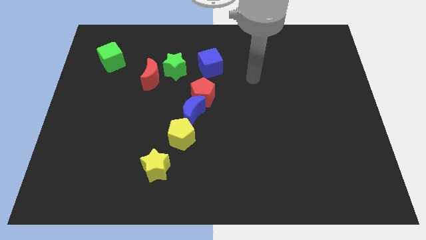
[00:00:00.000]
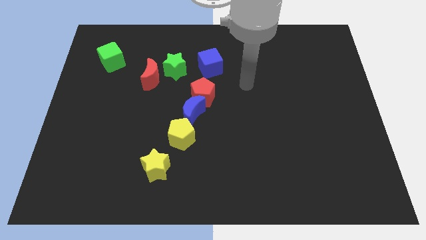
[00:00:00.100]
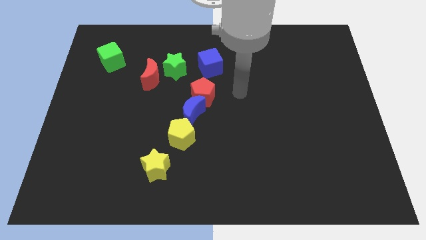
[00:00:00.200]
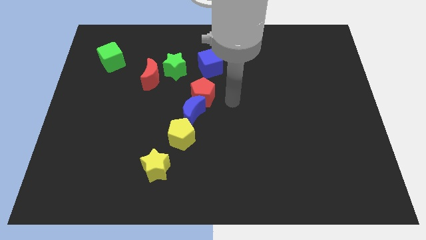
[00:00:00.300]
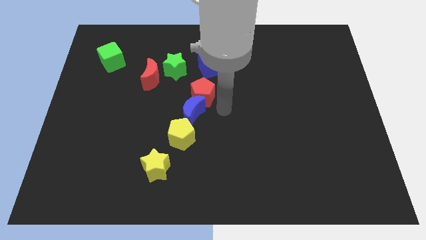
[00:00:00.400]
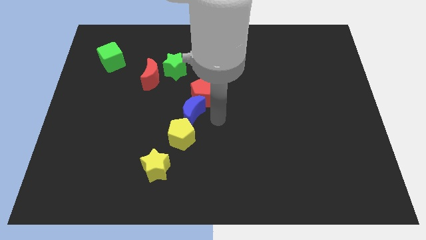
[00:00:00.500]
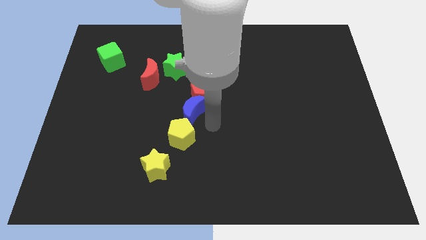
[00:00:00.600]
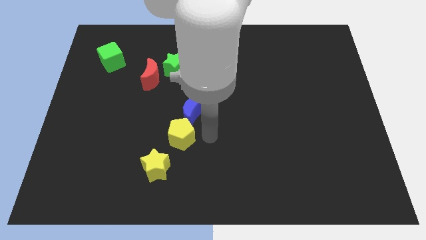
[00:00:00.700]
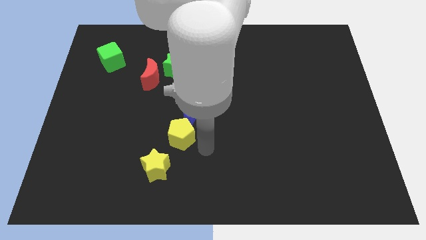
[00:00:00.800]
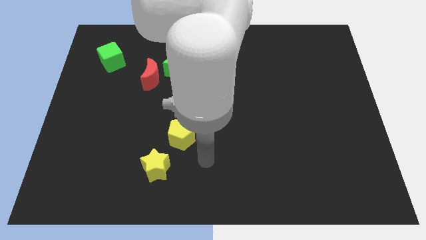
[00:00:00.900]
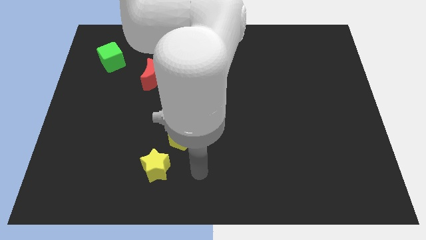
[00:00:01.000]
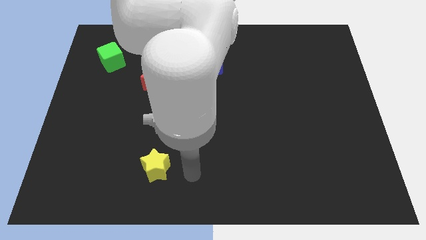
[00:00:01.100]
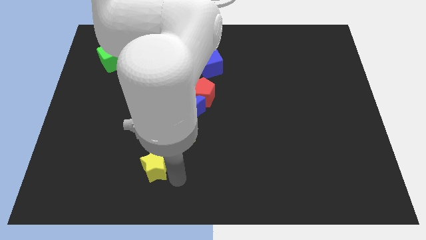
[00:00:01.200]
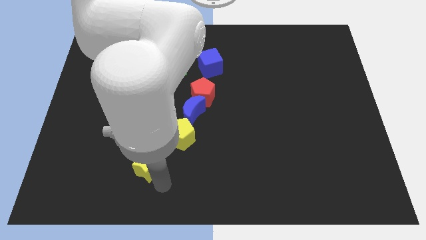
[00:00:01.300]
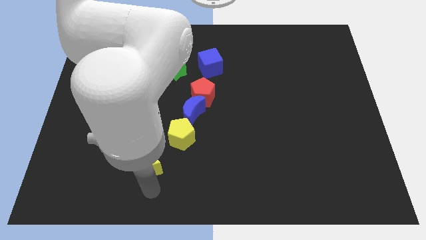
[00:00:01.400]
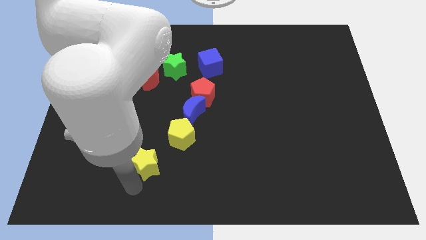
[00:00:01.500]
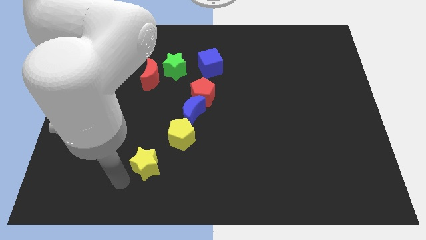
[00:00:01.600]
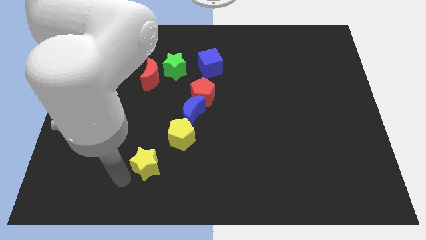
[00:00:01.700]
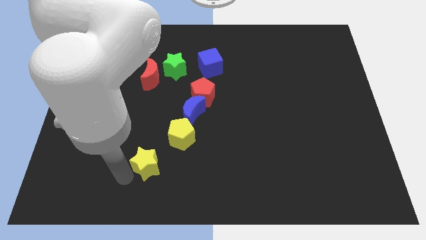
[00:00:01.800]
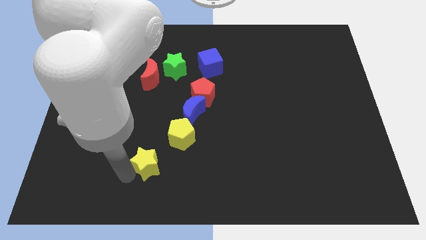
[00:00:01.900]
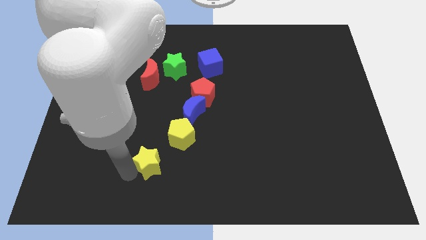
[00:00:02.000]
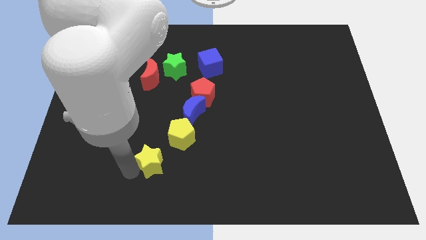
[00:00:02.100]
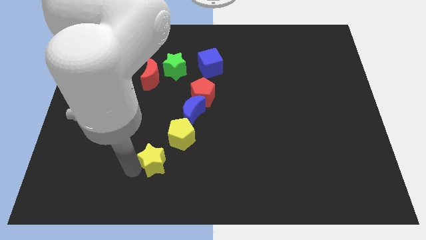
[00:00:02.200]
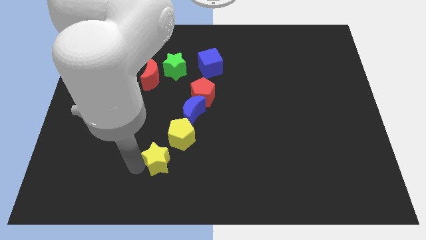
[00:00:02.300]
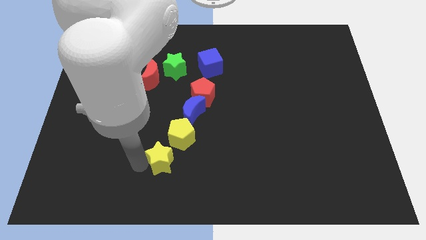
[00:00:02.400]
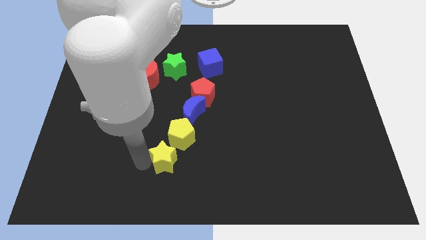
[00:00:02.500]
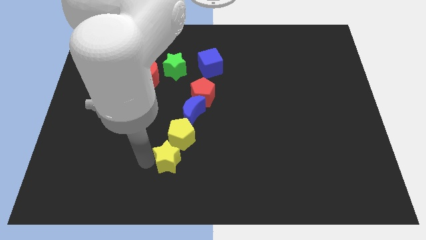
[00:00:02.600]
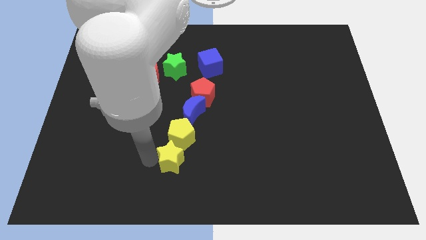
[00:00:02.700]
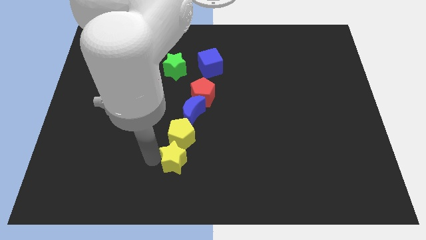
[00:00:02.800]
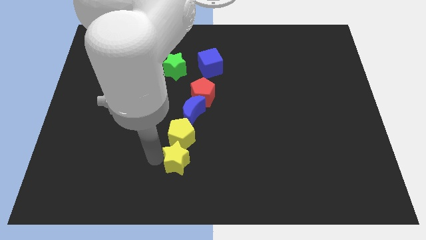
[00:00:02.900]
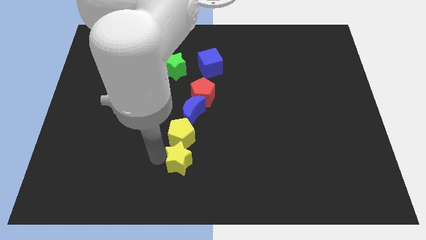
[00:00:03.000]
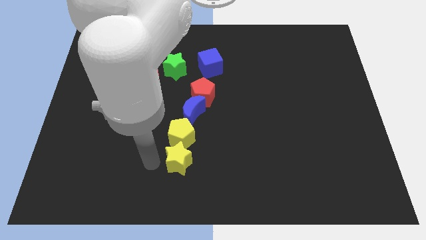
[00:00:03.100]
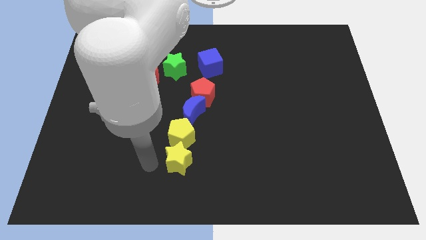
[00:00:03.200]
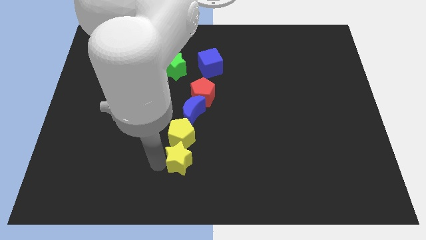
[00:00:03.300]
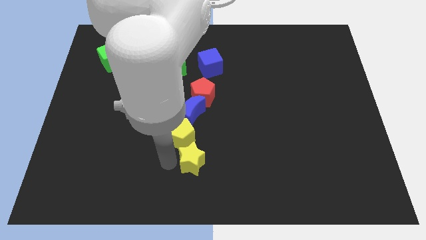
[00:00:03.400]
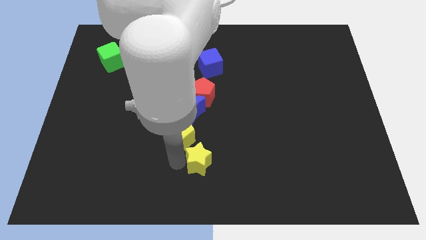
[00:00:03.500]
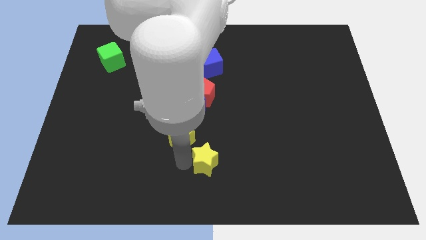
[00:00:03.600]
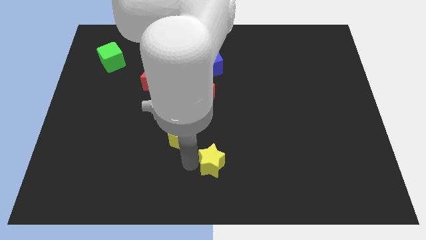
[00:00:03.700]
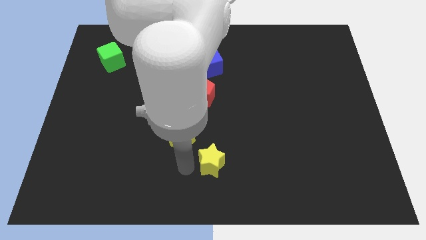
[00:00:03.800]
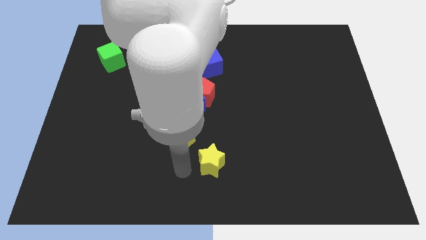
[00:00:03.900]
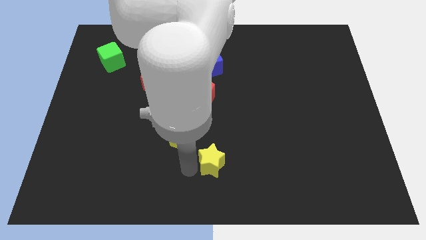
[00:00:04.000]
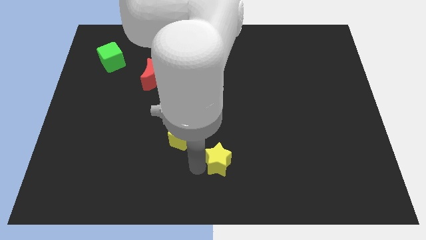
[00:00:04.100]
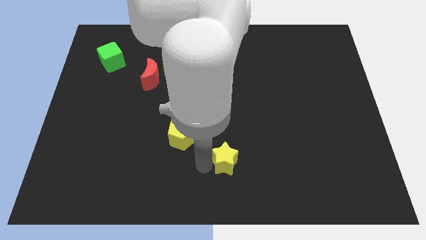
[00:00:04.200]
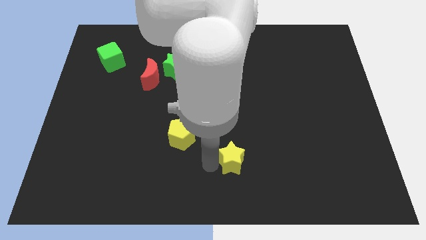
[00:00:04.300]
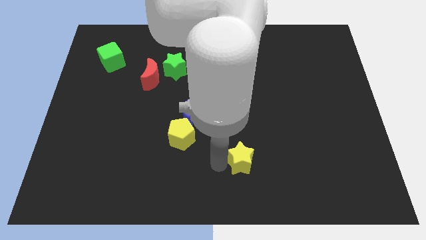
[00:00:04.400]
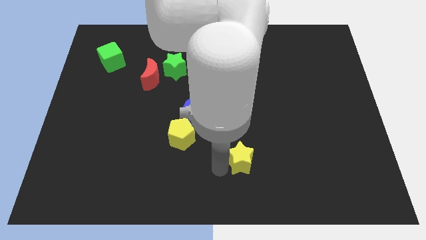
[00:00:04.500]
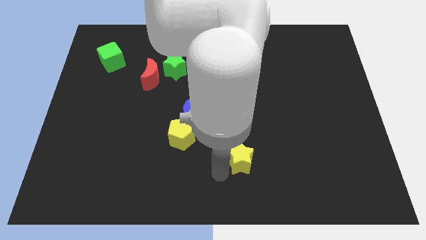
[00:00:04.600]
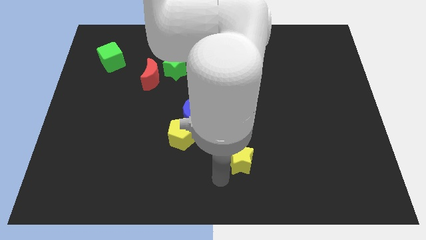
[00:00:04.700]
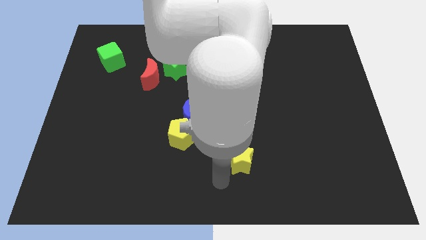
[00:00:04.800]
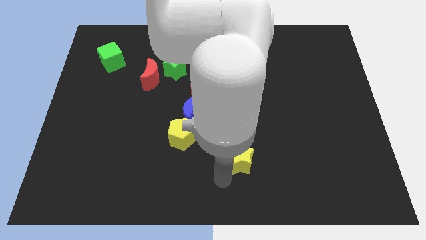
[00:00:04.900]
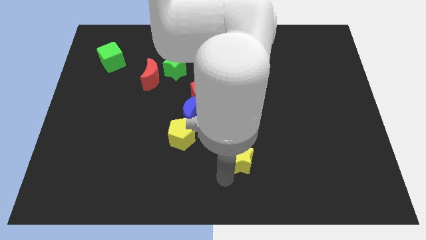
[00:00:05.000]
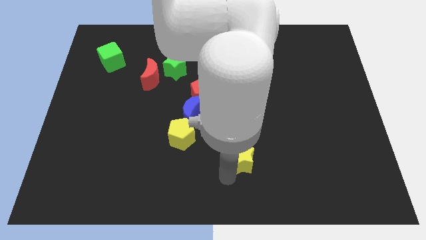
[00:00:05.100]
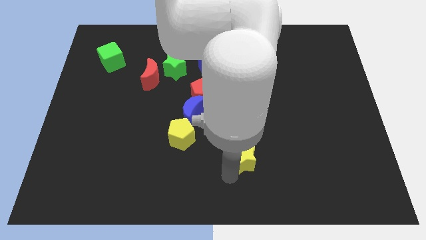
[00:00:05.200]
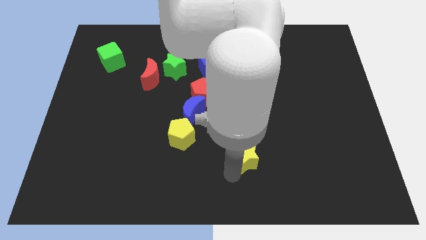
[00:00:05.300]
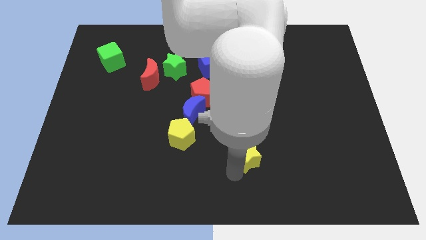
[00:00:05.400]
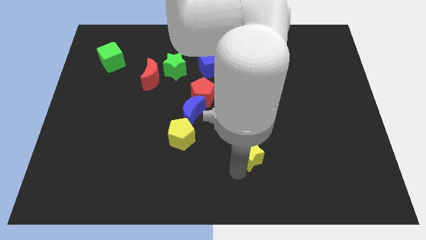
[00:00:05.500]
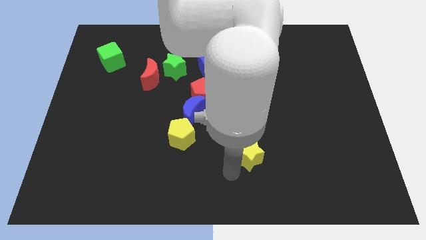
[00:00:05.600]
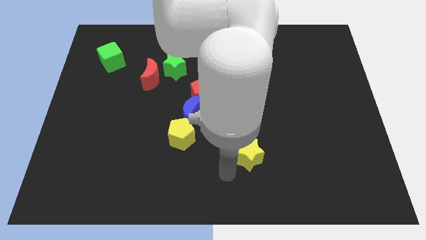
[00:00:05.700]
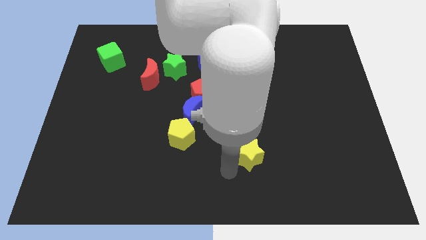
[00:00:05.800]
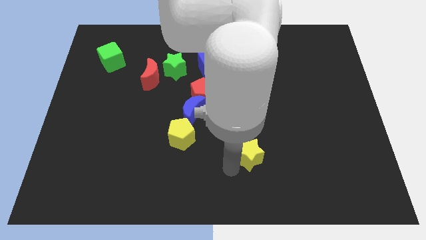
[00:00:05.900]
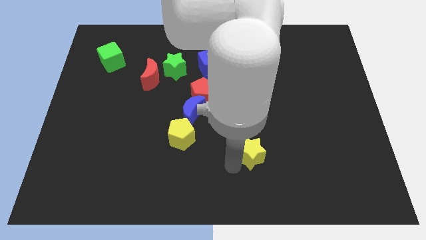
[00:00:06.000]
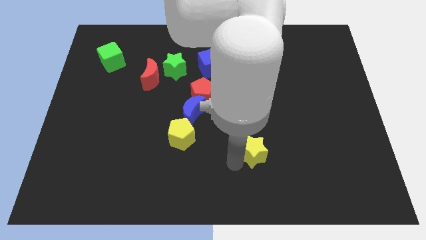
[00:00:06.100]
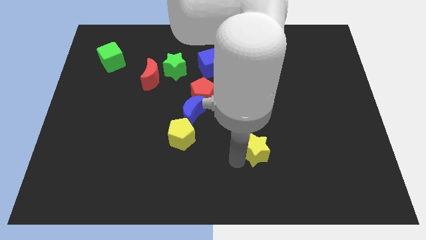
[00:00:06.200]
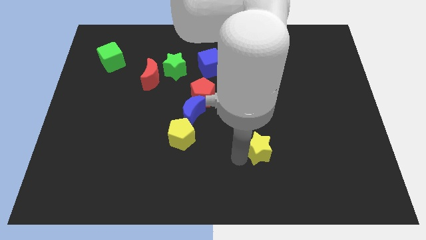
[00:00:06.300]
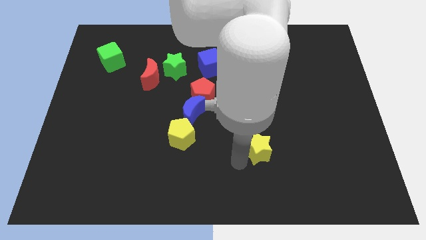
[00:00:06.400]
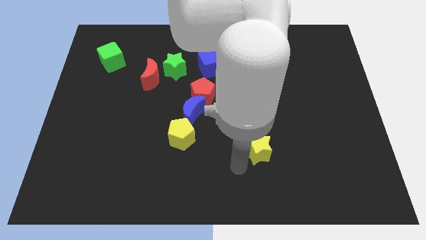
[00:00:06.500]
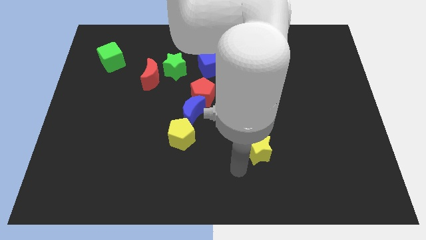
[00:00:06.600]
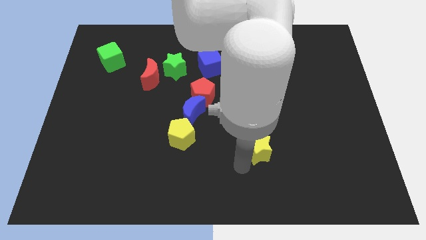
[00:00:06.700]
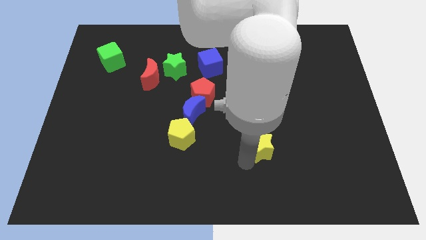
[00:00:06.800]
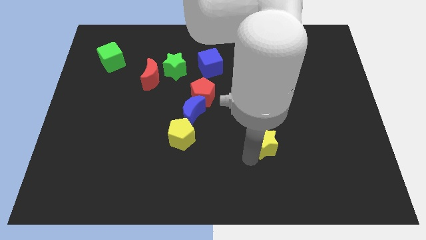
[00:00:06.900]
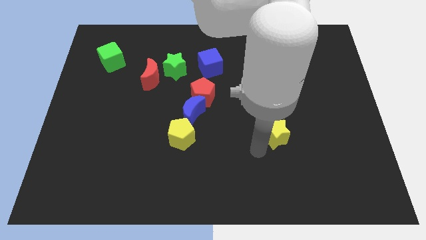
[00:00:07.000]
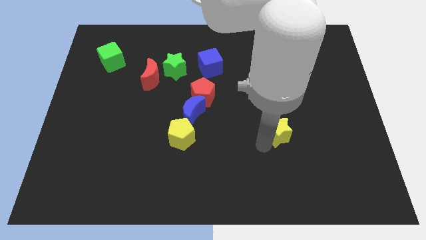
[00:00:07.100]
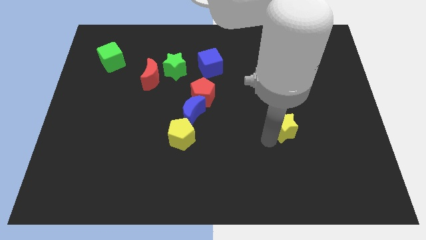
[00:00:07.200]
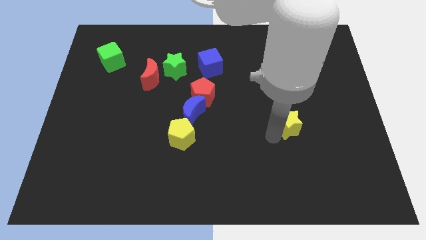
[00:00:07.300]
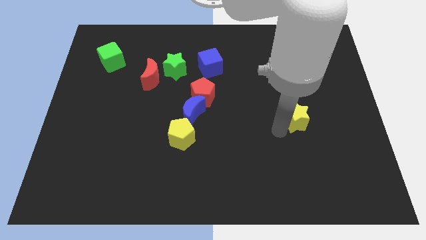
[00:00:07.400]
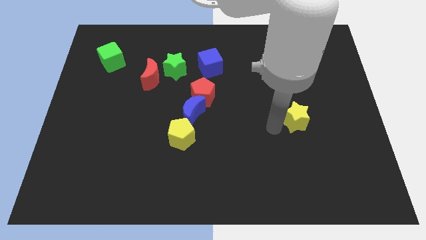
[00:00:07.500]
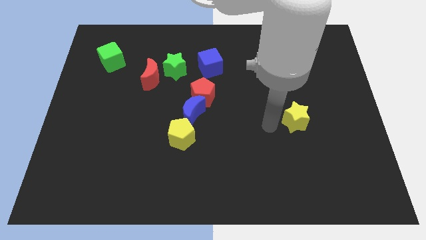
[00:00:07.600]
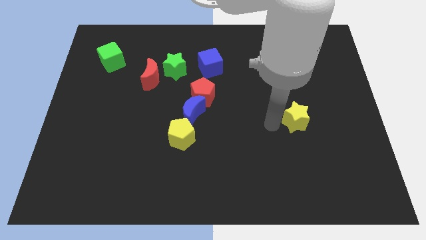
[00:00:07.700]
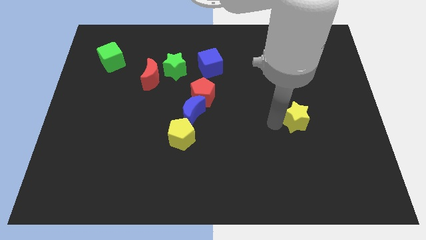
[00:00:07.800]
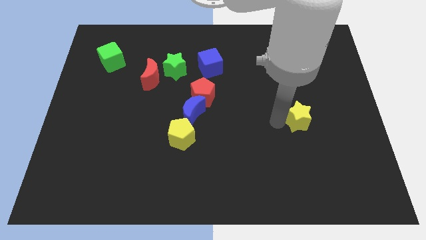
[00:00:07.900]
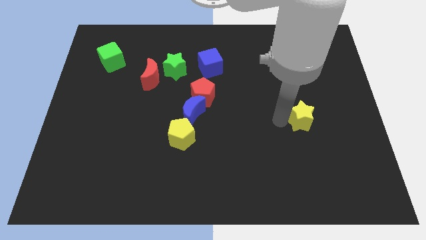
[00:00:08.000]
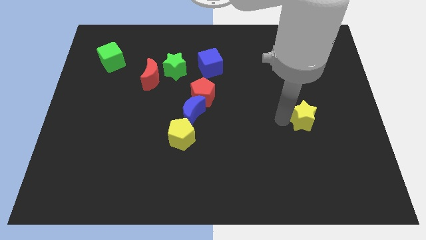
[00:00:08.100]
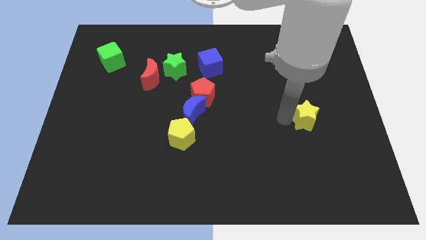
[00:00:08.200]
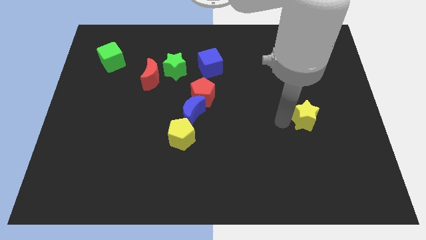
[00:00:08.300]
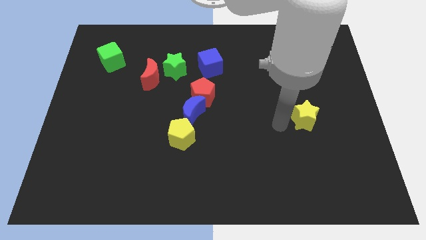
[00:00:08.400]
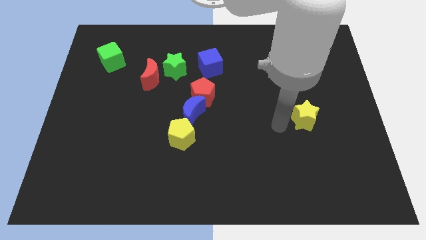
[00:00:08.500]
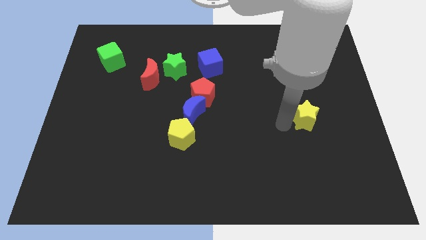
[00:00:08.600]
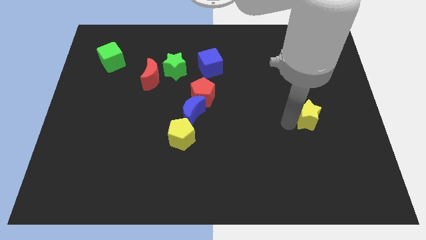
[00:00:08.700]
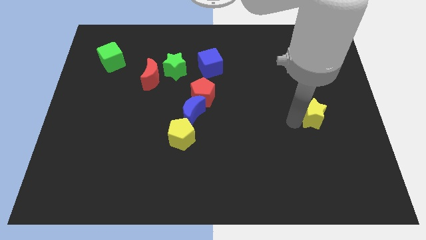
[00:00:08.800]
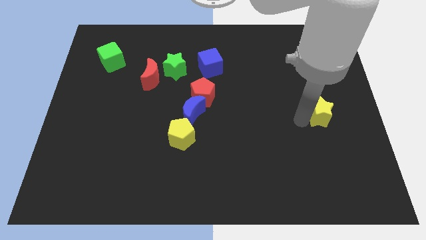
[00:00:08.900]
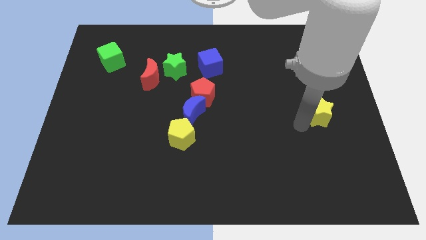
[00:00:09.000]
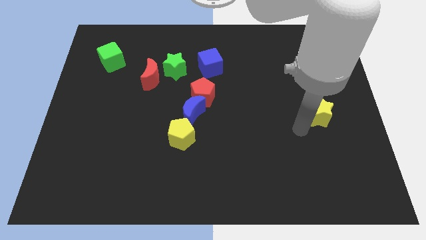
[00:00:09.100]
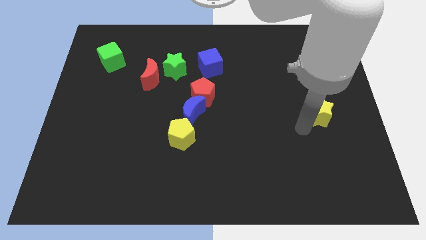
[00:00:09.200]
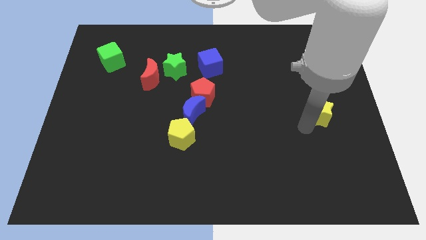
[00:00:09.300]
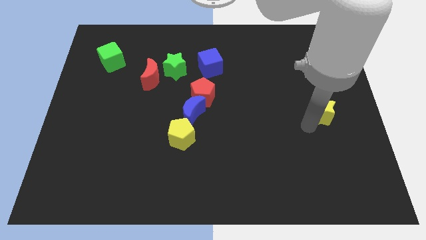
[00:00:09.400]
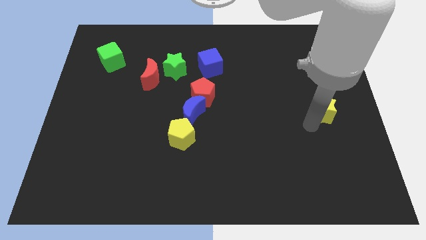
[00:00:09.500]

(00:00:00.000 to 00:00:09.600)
push the yellow star to the center right
